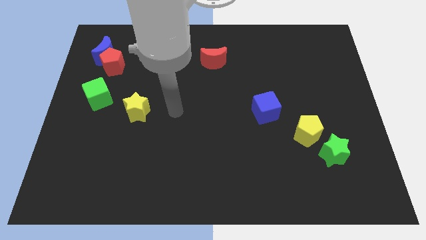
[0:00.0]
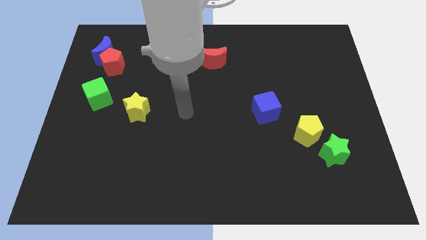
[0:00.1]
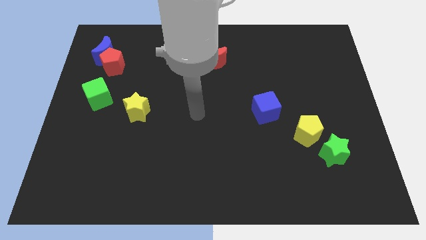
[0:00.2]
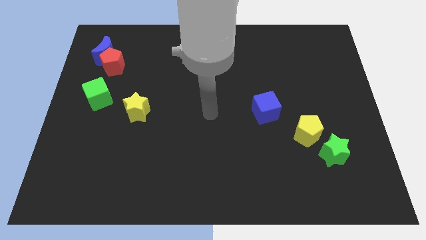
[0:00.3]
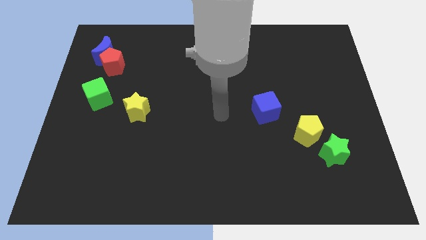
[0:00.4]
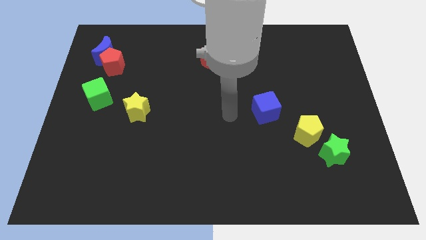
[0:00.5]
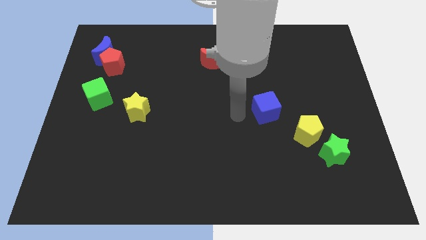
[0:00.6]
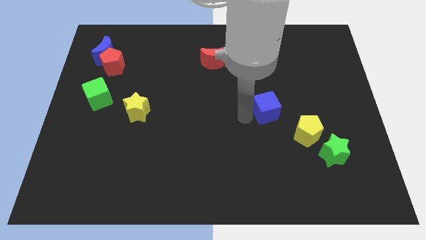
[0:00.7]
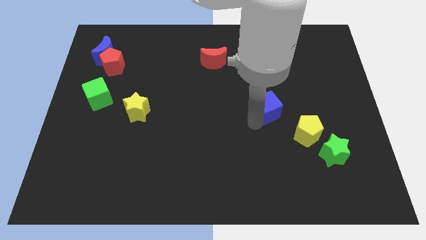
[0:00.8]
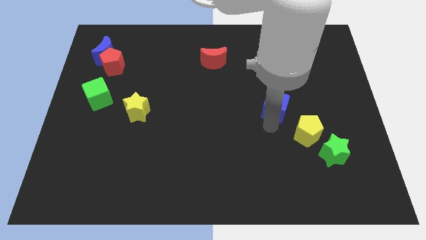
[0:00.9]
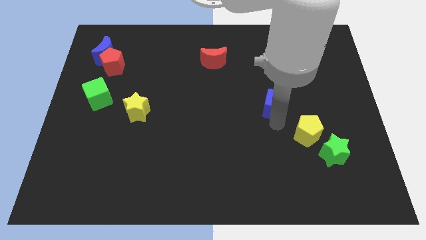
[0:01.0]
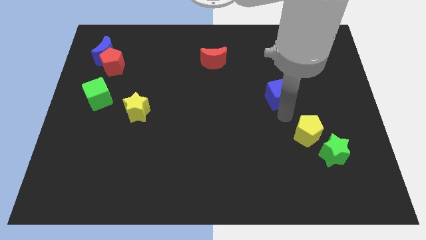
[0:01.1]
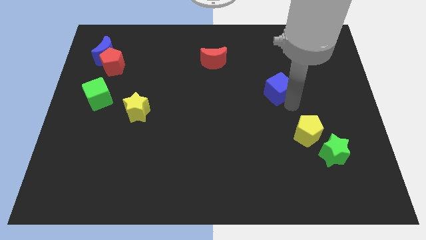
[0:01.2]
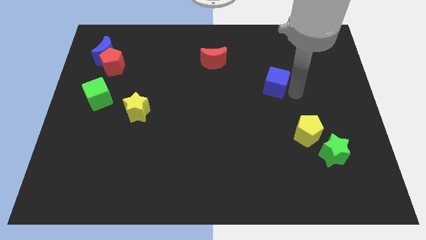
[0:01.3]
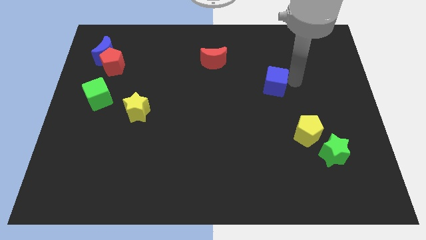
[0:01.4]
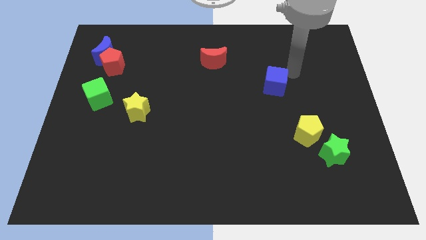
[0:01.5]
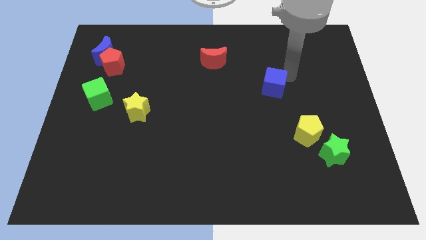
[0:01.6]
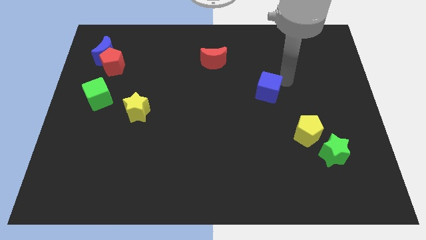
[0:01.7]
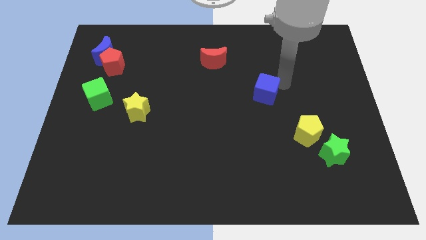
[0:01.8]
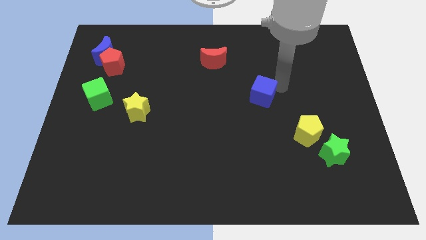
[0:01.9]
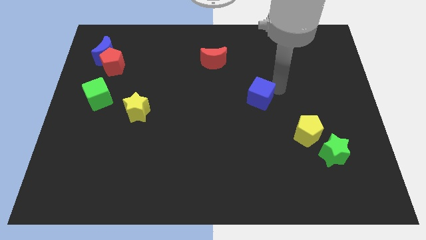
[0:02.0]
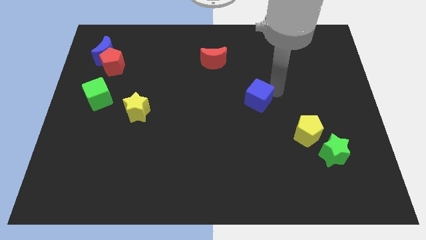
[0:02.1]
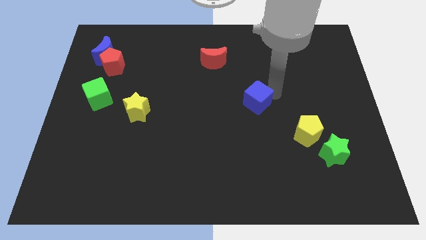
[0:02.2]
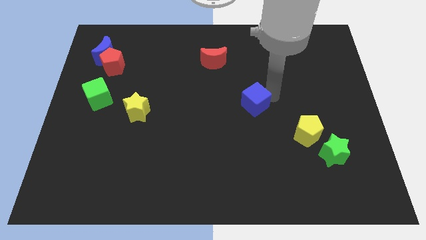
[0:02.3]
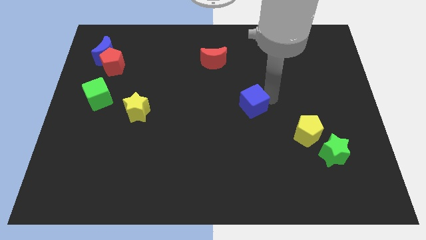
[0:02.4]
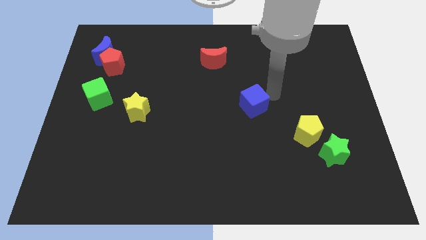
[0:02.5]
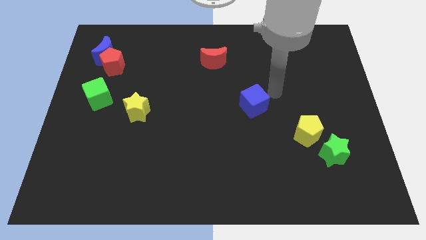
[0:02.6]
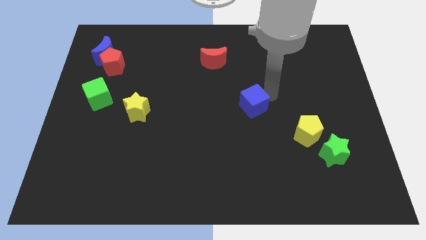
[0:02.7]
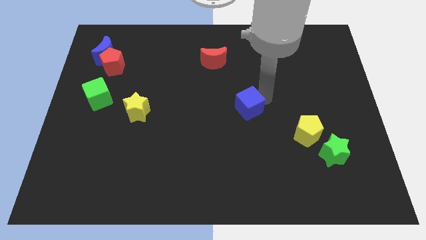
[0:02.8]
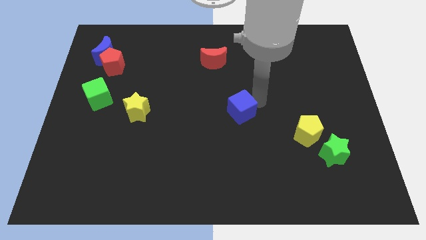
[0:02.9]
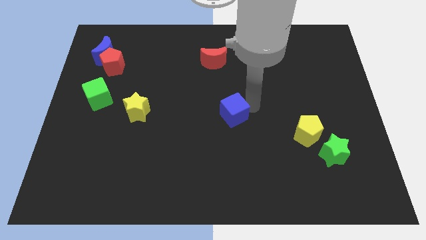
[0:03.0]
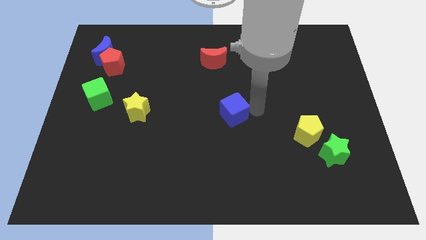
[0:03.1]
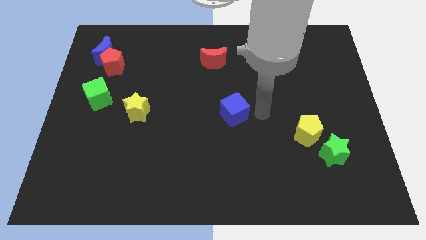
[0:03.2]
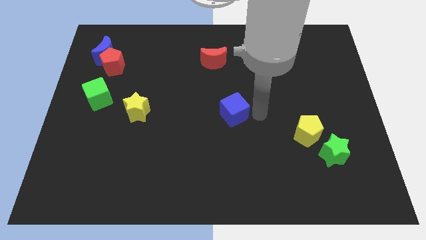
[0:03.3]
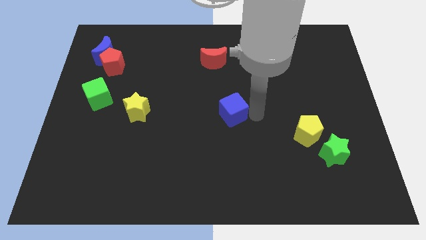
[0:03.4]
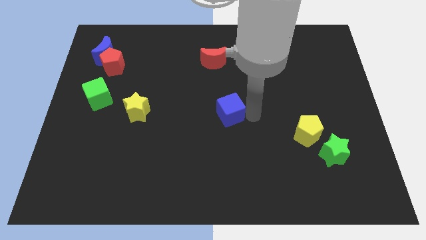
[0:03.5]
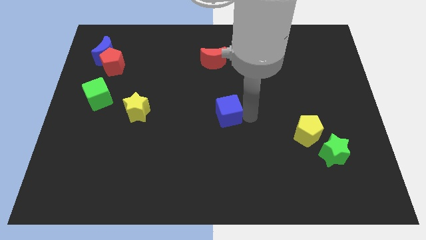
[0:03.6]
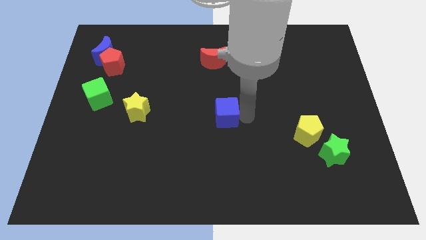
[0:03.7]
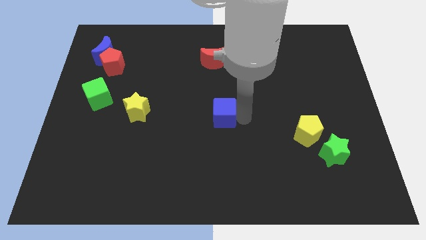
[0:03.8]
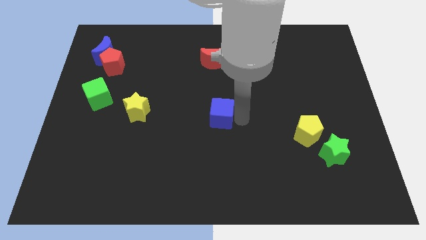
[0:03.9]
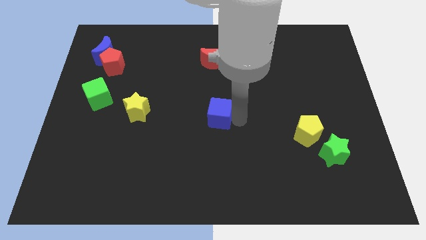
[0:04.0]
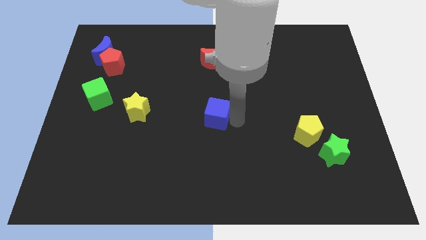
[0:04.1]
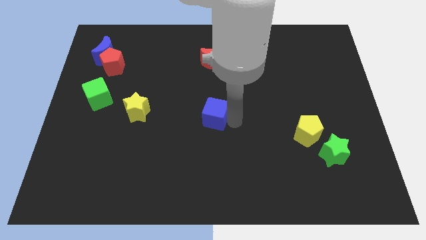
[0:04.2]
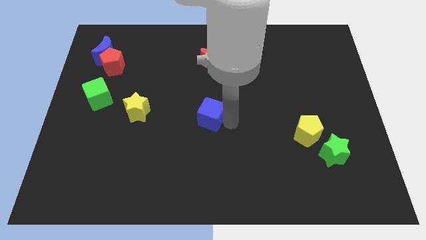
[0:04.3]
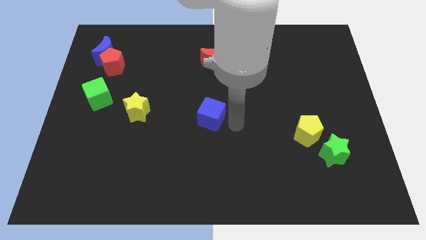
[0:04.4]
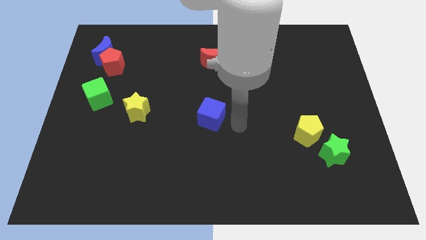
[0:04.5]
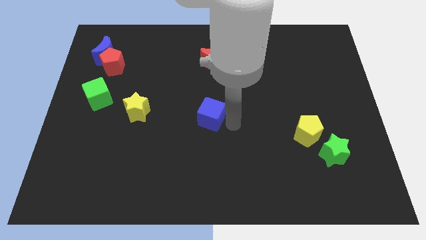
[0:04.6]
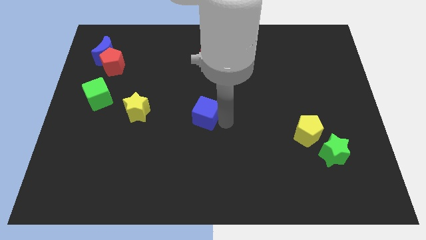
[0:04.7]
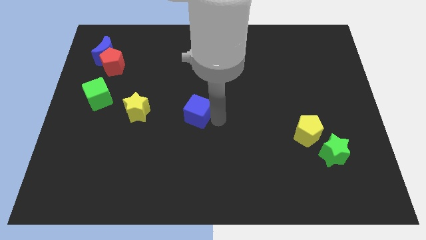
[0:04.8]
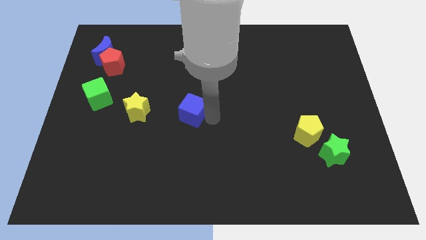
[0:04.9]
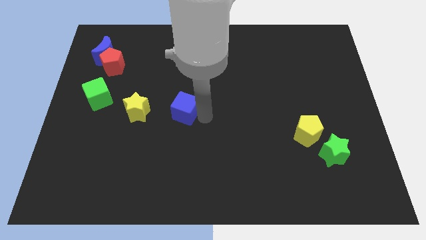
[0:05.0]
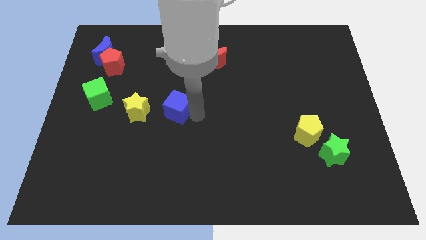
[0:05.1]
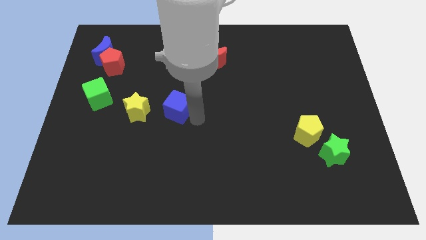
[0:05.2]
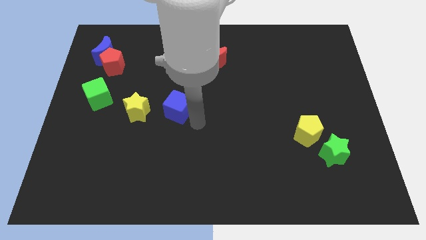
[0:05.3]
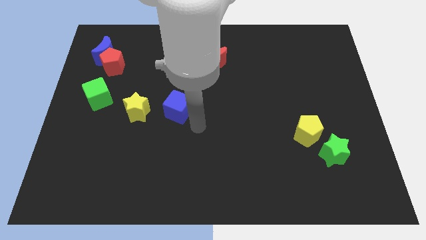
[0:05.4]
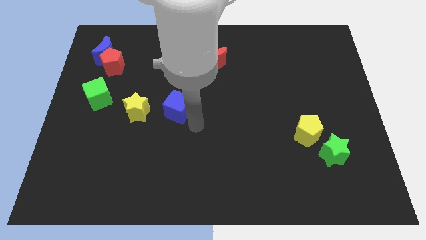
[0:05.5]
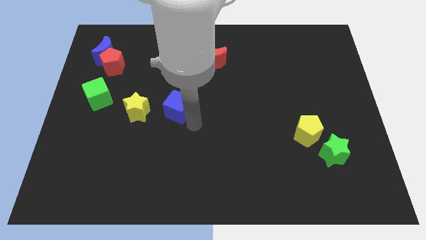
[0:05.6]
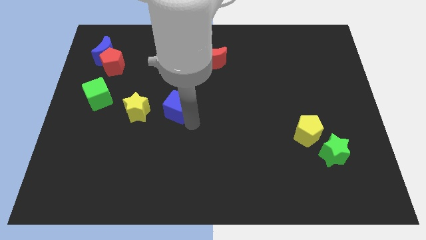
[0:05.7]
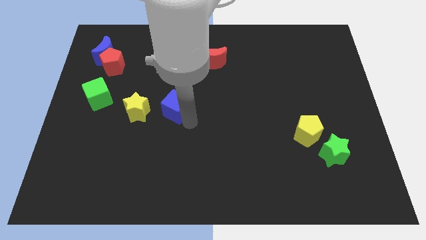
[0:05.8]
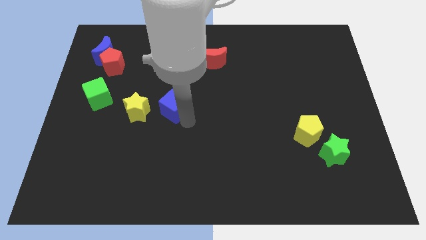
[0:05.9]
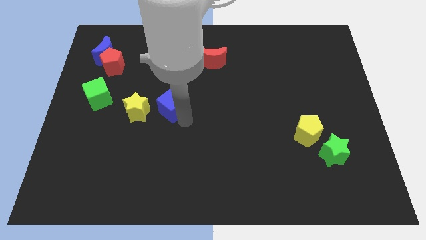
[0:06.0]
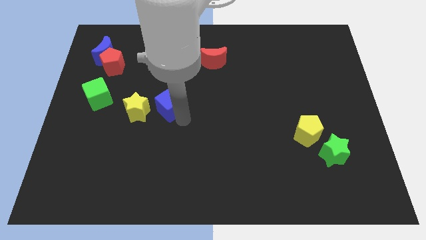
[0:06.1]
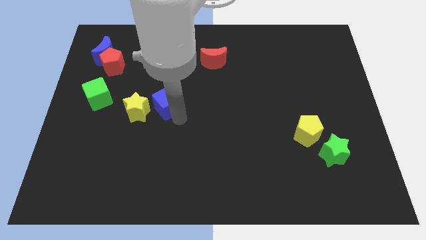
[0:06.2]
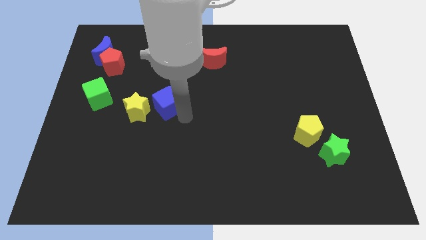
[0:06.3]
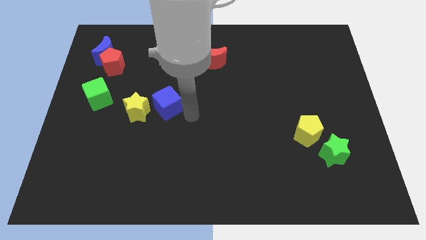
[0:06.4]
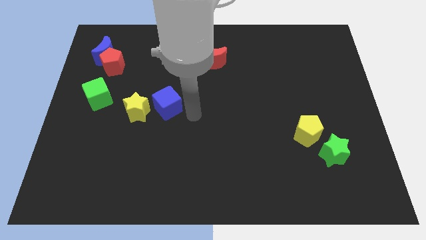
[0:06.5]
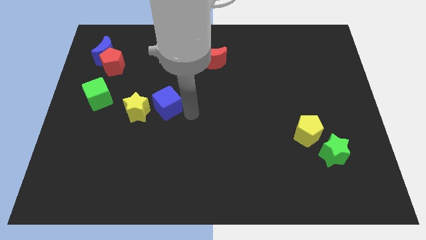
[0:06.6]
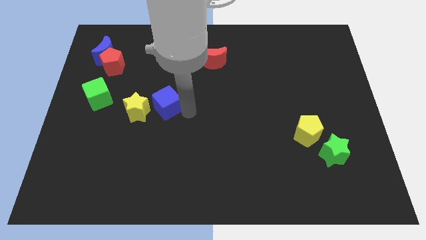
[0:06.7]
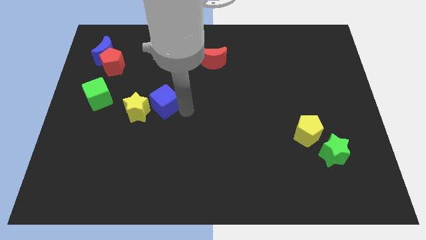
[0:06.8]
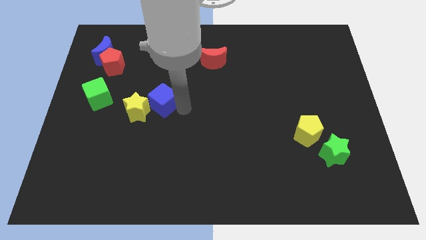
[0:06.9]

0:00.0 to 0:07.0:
put the blue cube right of the green cube
